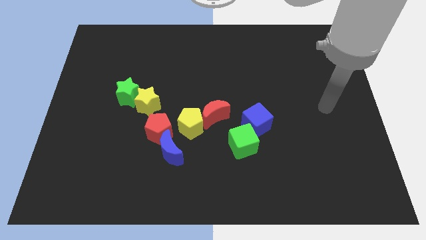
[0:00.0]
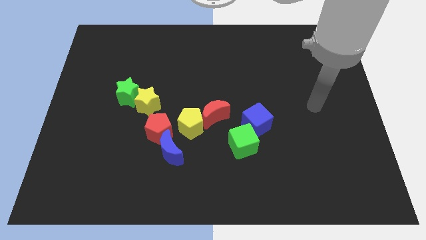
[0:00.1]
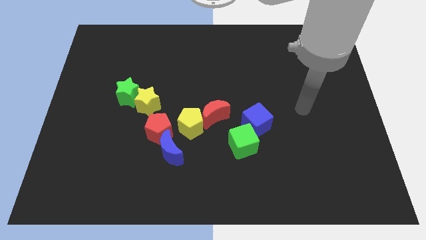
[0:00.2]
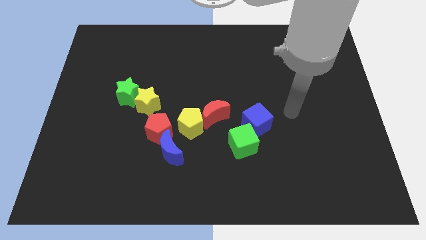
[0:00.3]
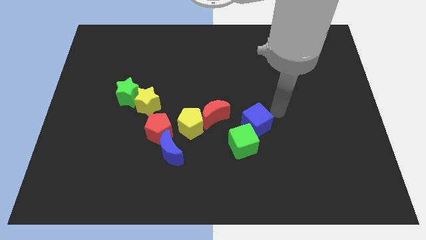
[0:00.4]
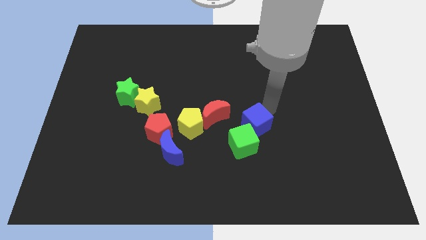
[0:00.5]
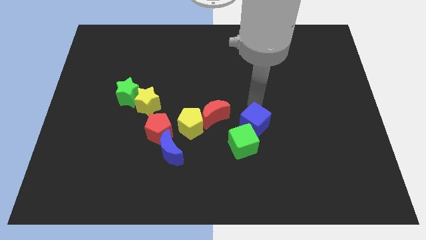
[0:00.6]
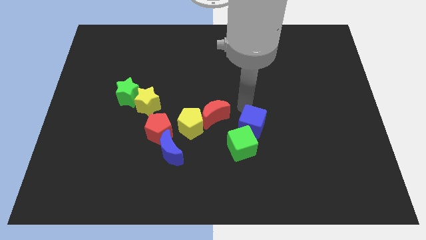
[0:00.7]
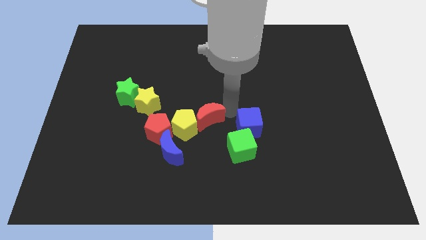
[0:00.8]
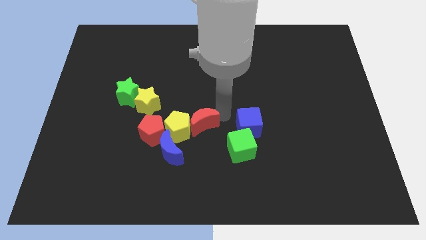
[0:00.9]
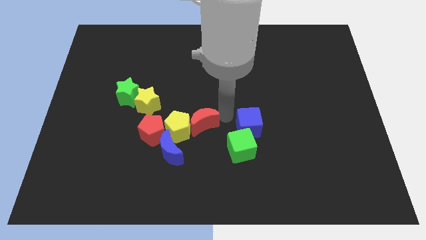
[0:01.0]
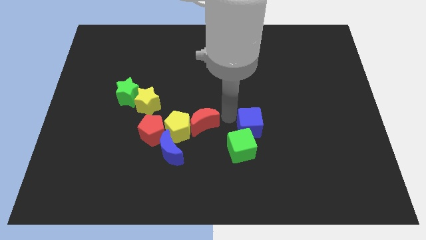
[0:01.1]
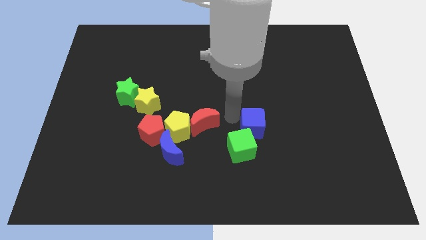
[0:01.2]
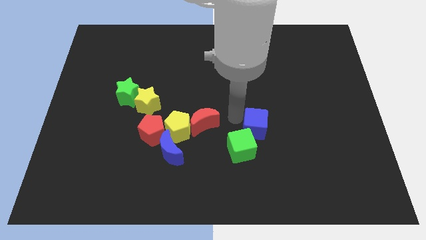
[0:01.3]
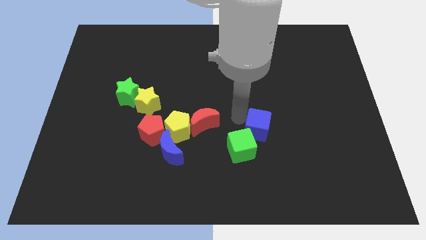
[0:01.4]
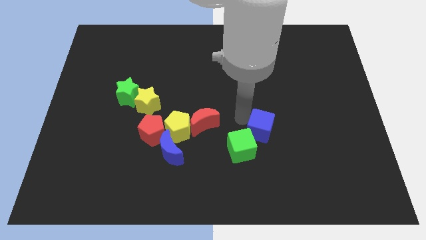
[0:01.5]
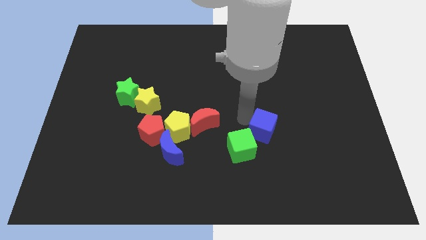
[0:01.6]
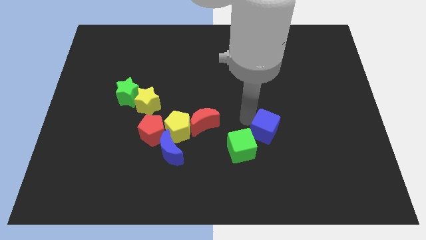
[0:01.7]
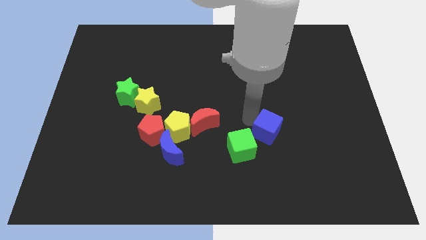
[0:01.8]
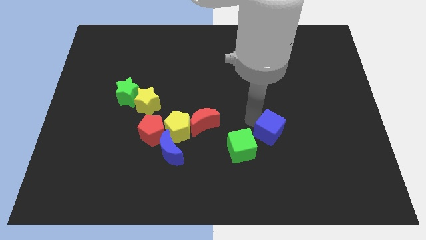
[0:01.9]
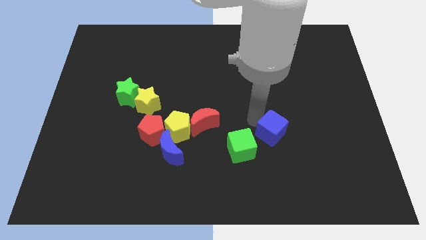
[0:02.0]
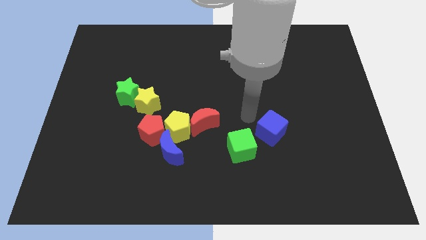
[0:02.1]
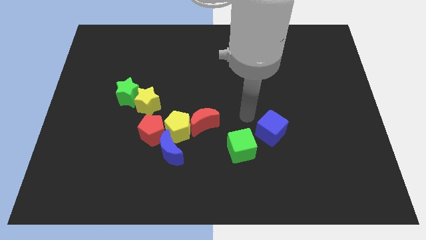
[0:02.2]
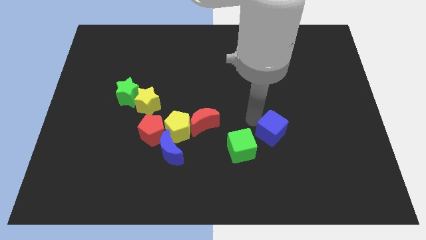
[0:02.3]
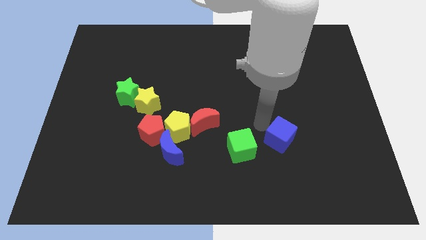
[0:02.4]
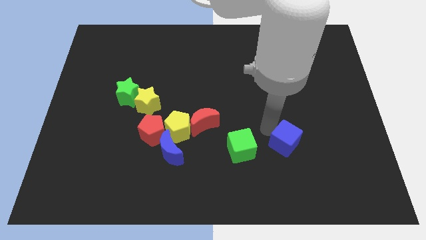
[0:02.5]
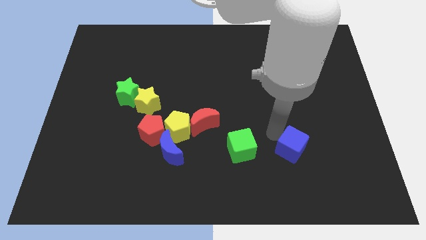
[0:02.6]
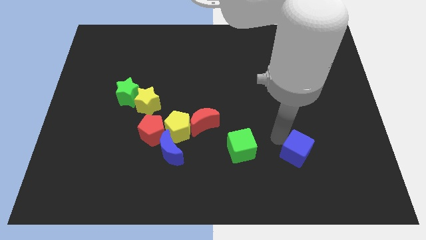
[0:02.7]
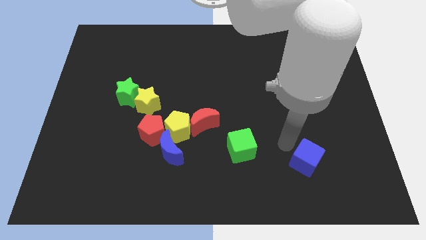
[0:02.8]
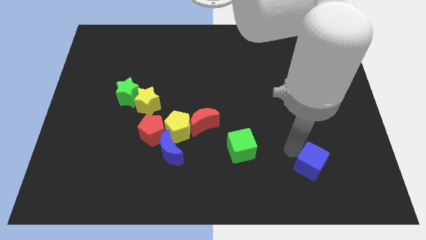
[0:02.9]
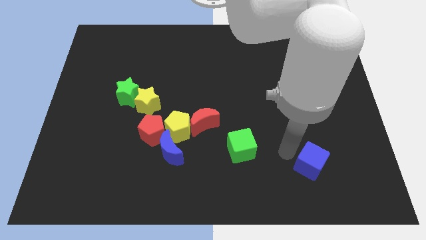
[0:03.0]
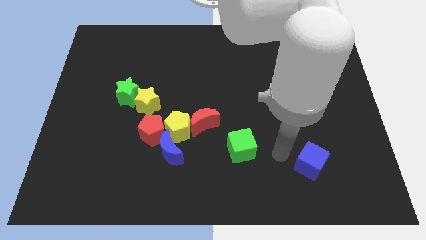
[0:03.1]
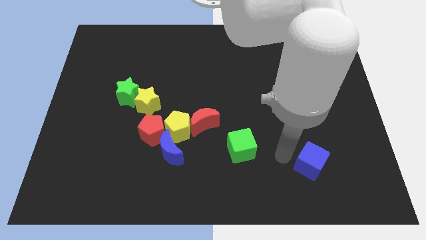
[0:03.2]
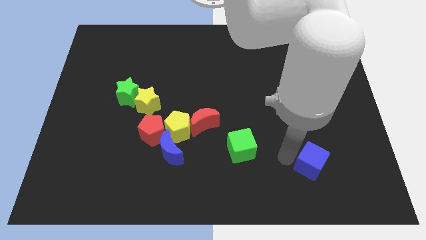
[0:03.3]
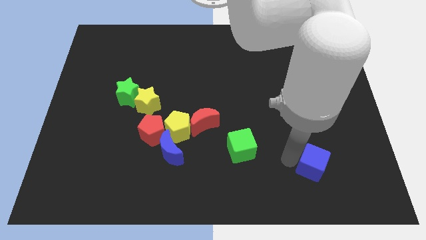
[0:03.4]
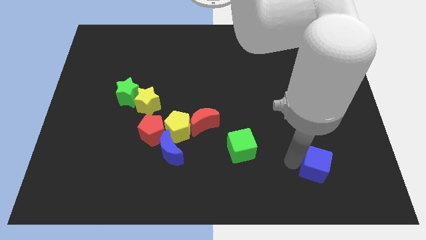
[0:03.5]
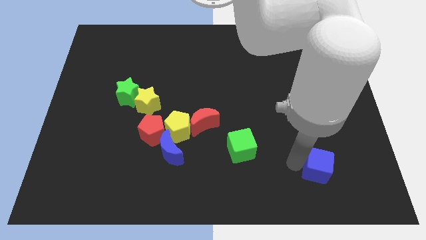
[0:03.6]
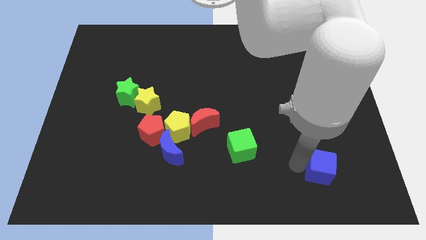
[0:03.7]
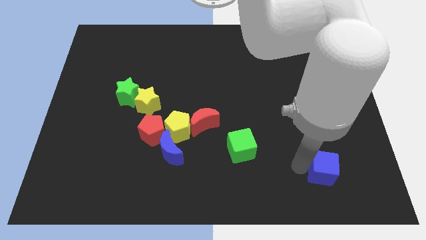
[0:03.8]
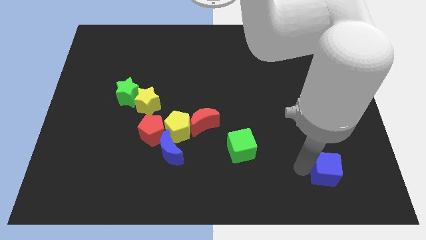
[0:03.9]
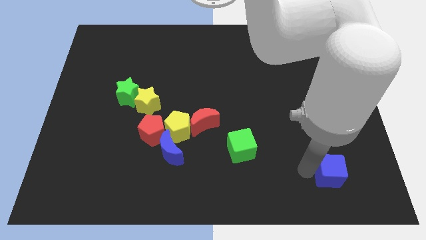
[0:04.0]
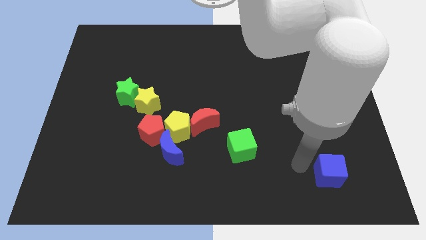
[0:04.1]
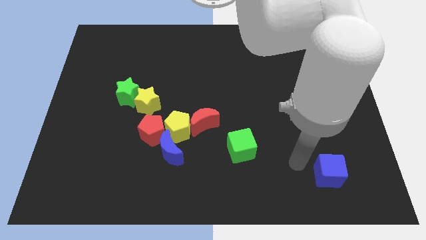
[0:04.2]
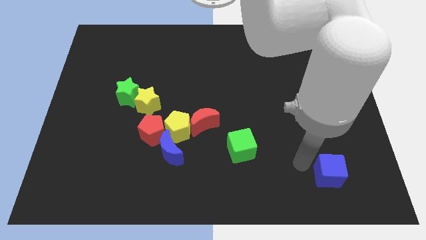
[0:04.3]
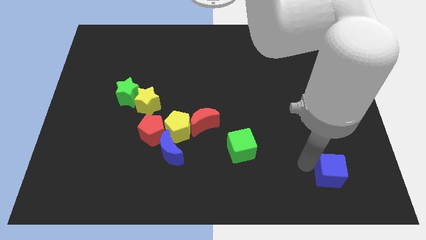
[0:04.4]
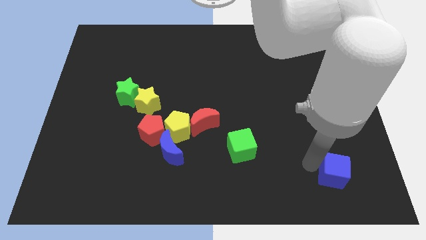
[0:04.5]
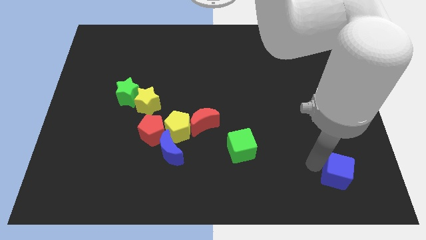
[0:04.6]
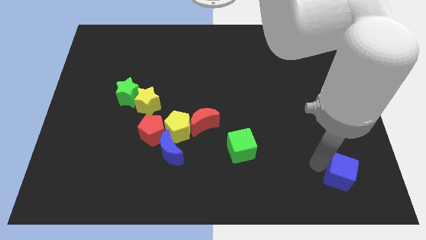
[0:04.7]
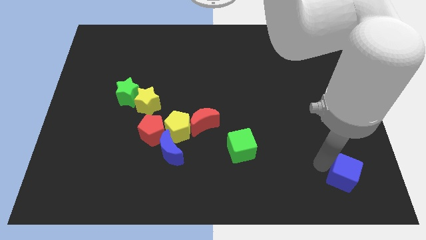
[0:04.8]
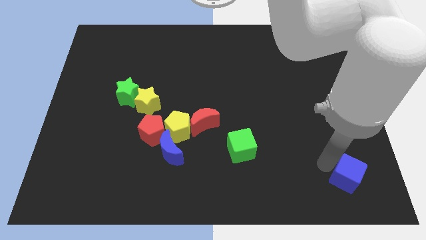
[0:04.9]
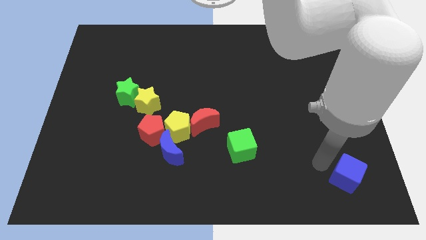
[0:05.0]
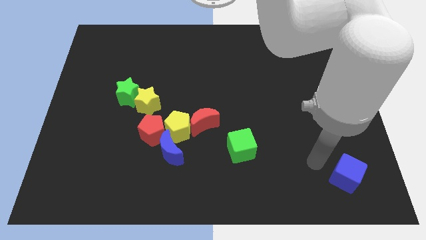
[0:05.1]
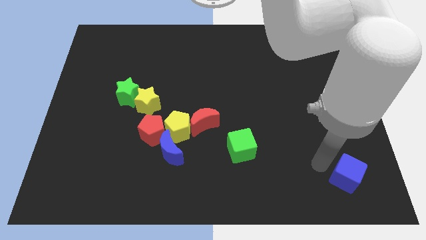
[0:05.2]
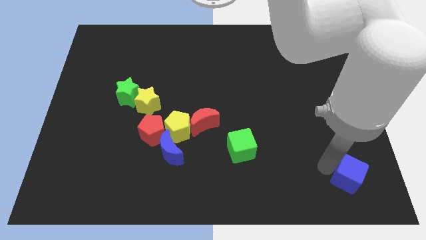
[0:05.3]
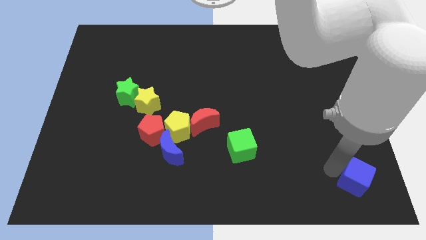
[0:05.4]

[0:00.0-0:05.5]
put the blue cube to the lower right corner
